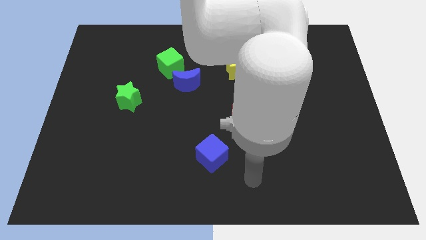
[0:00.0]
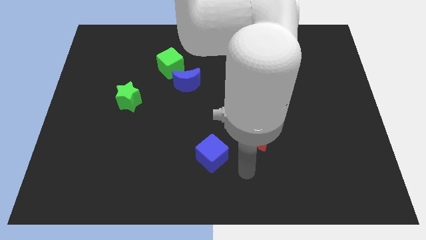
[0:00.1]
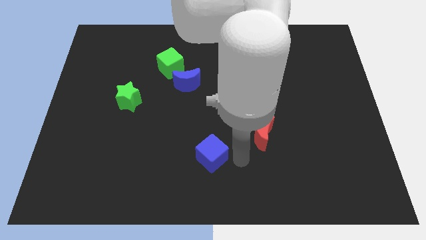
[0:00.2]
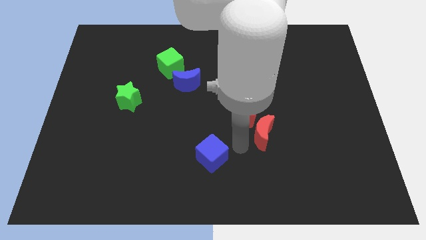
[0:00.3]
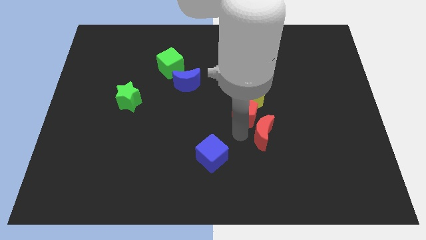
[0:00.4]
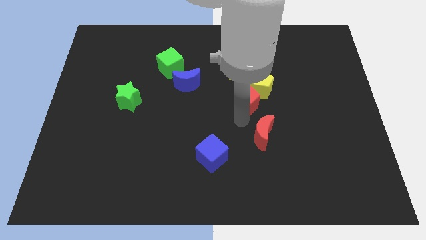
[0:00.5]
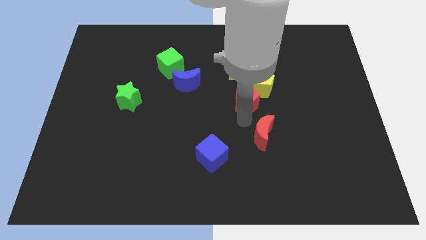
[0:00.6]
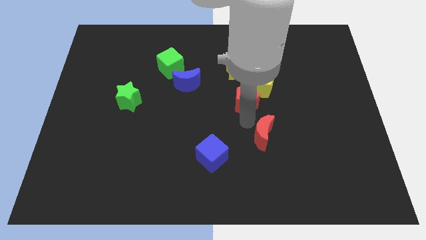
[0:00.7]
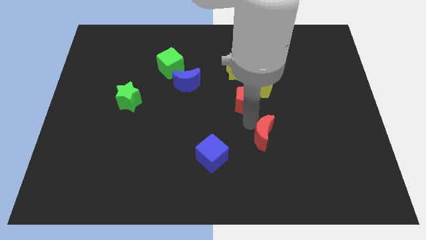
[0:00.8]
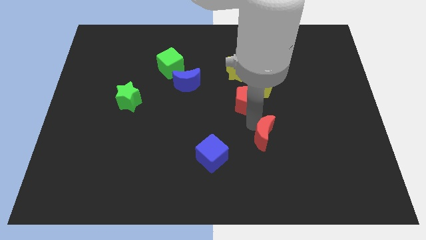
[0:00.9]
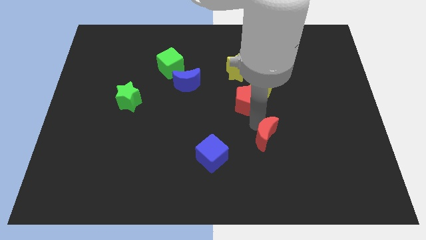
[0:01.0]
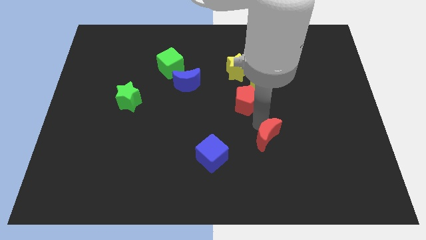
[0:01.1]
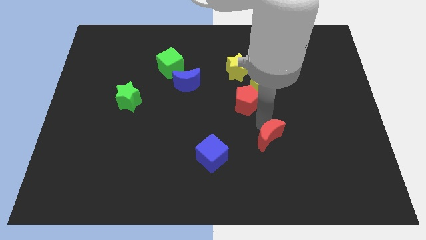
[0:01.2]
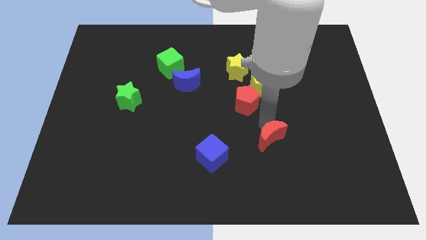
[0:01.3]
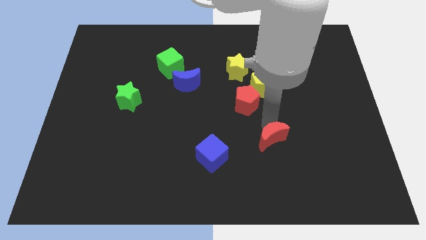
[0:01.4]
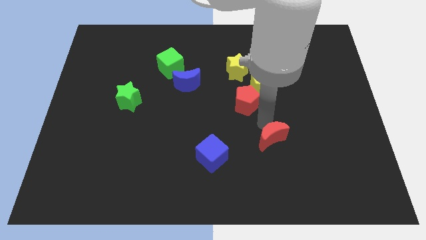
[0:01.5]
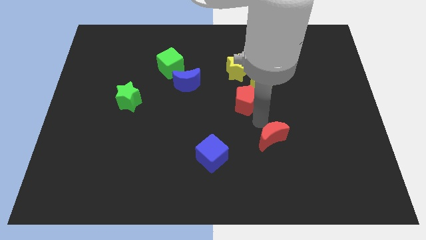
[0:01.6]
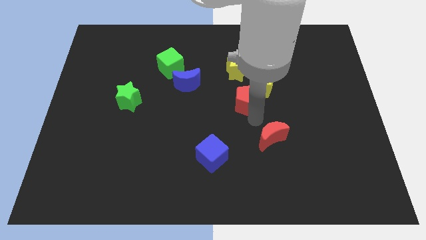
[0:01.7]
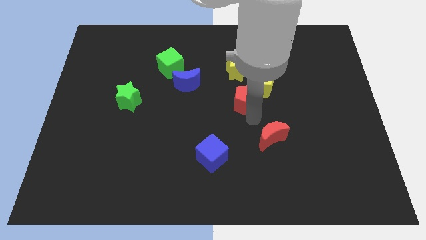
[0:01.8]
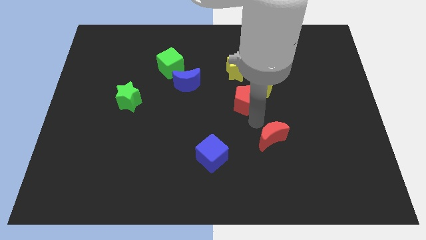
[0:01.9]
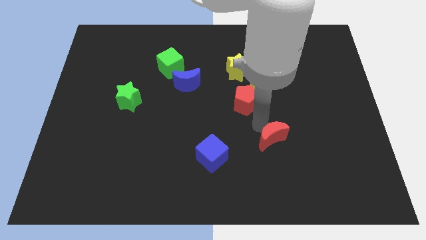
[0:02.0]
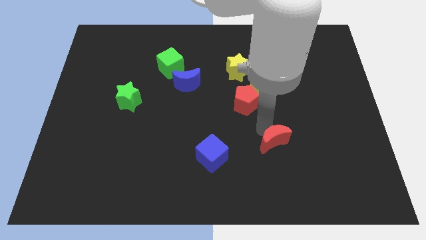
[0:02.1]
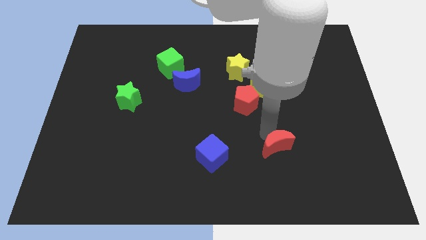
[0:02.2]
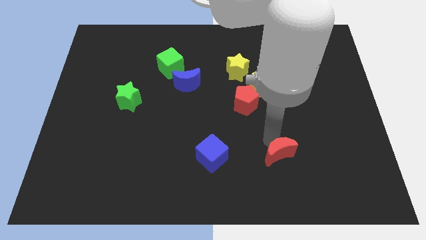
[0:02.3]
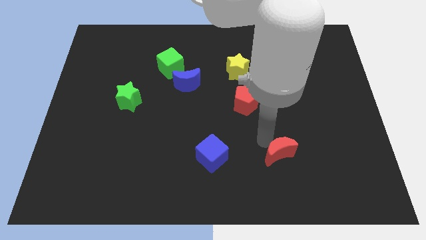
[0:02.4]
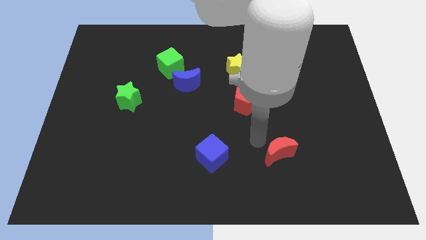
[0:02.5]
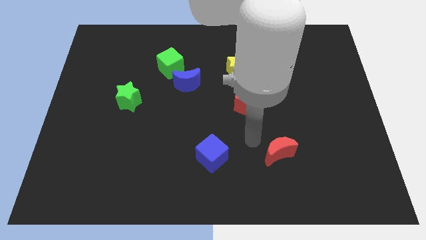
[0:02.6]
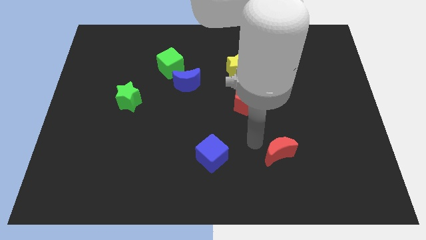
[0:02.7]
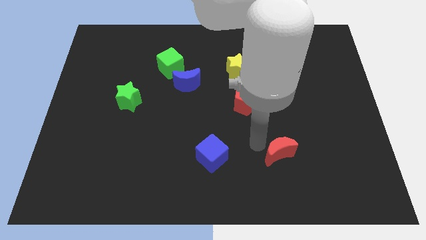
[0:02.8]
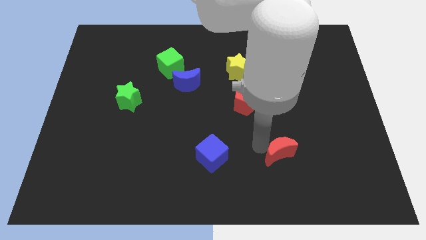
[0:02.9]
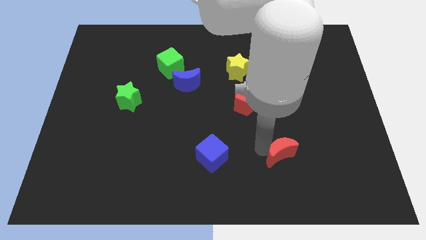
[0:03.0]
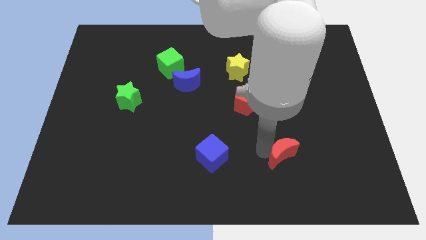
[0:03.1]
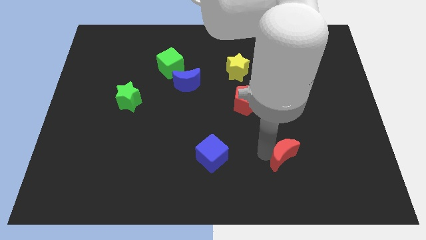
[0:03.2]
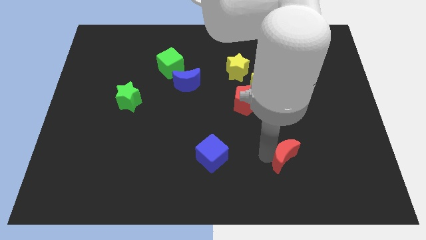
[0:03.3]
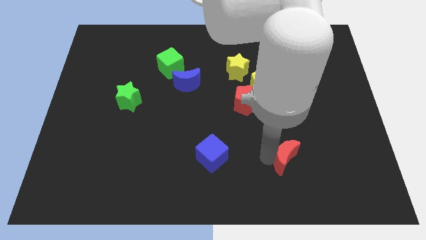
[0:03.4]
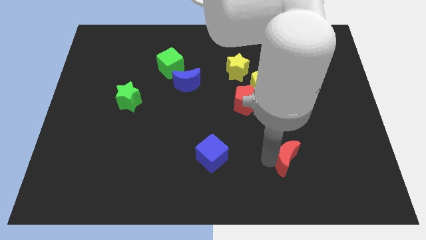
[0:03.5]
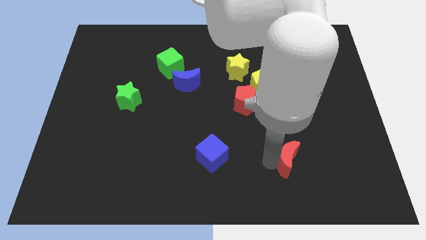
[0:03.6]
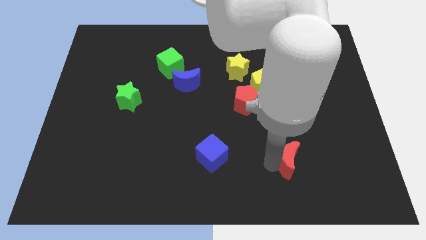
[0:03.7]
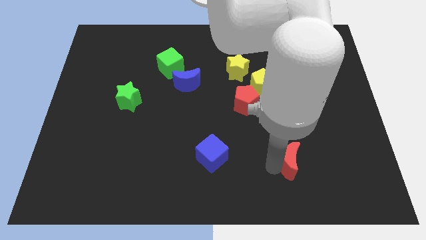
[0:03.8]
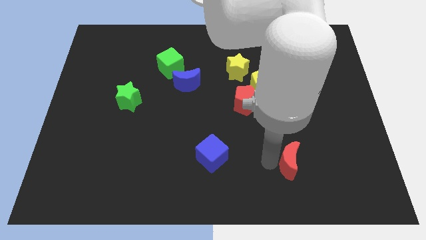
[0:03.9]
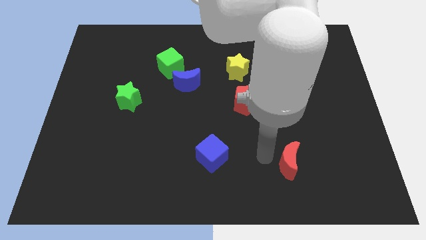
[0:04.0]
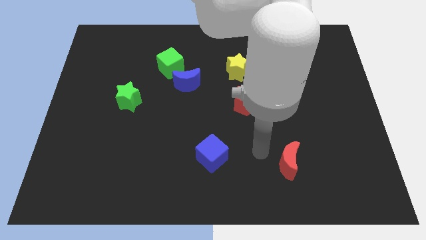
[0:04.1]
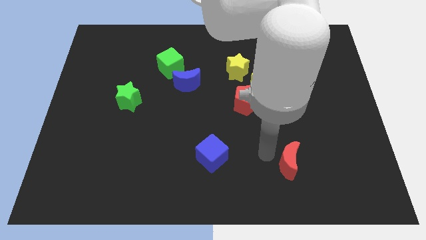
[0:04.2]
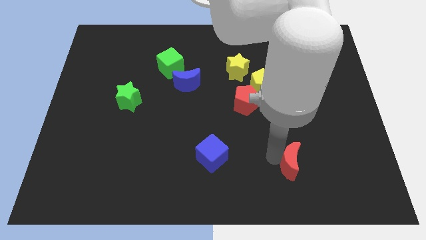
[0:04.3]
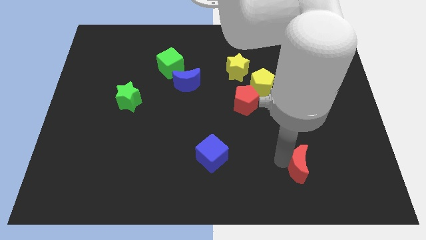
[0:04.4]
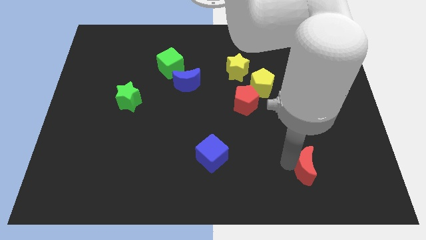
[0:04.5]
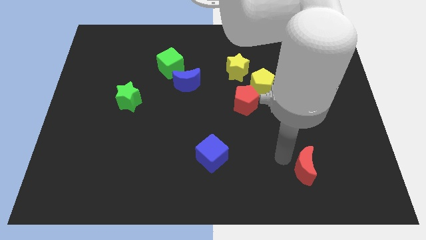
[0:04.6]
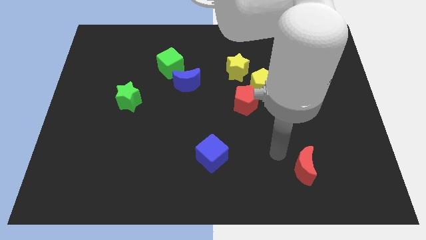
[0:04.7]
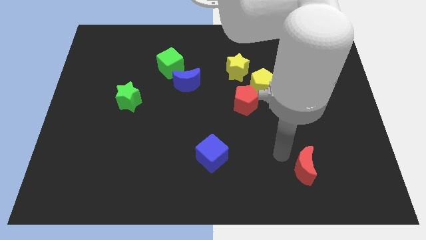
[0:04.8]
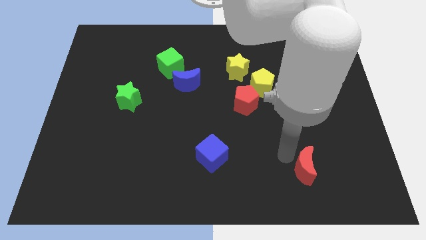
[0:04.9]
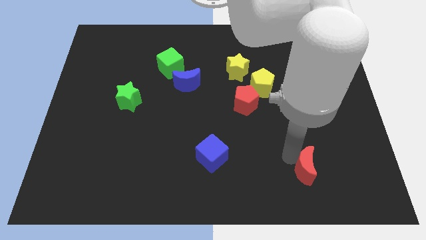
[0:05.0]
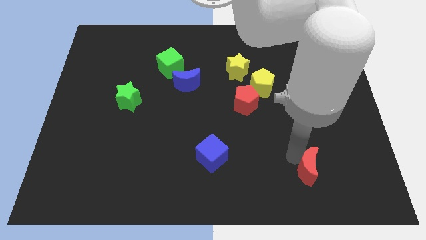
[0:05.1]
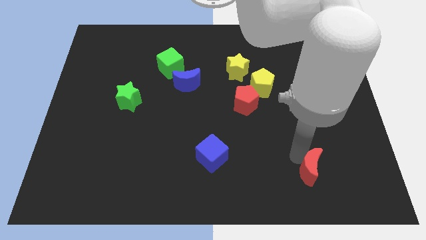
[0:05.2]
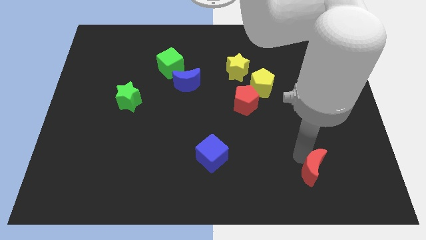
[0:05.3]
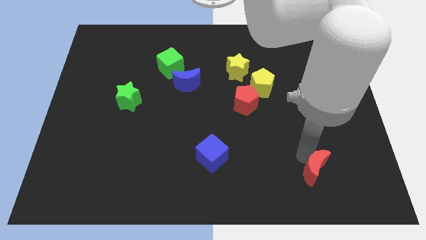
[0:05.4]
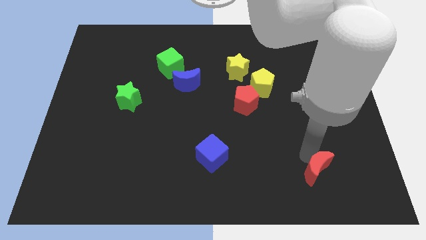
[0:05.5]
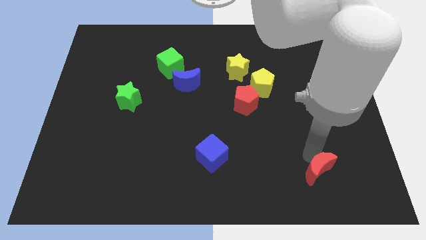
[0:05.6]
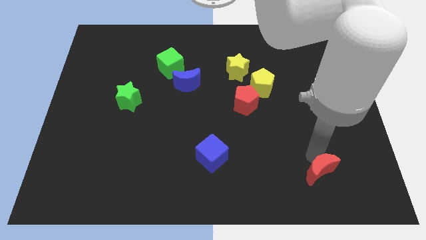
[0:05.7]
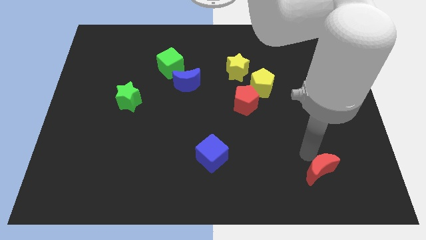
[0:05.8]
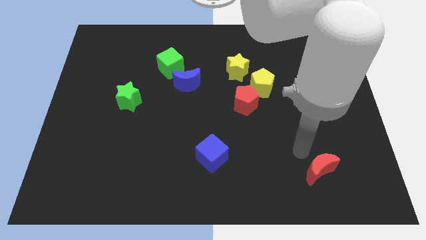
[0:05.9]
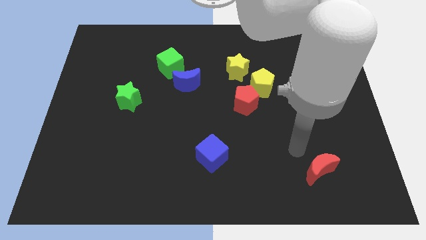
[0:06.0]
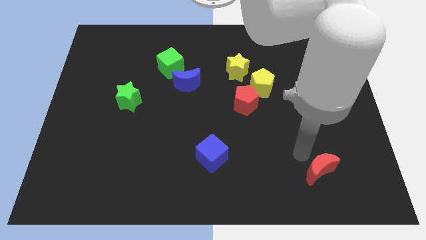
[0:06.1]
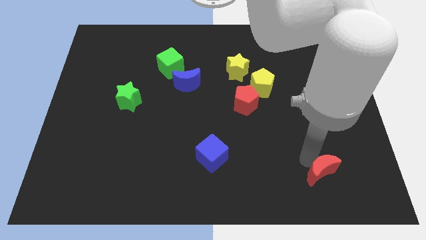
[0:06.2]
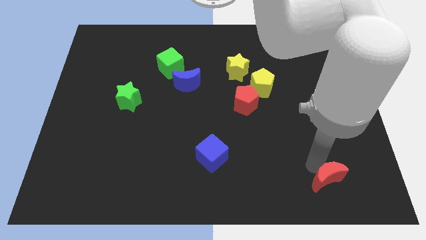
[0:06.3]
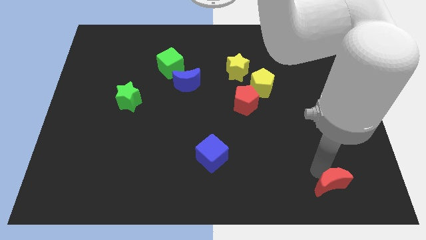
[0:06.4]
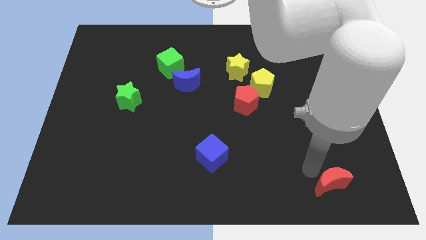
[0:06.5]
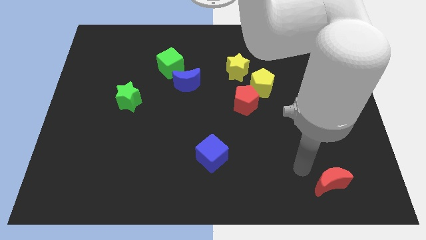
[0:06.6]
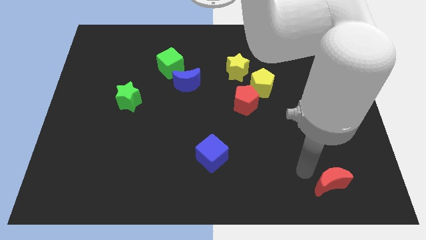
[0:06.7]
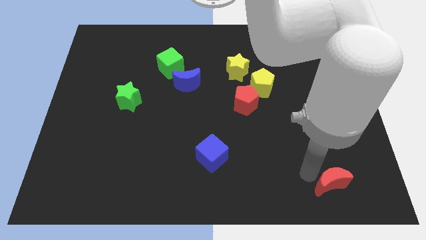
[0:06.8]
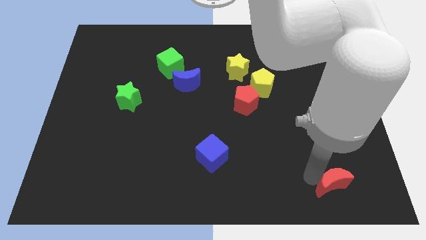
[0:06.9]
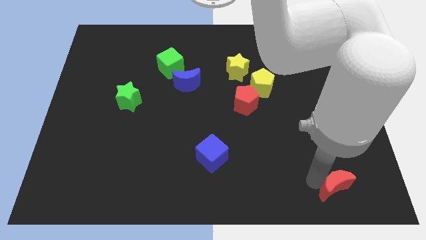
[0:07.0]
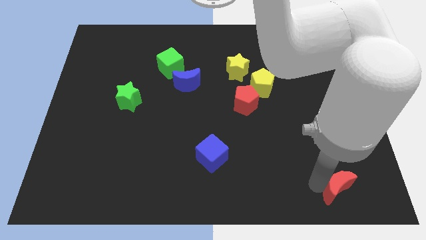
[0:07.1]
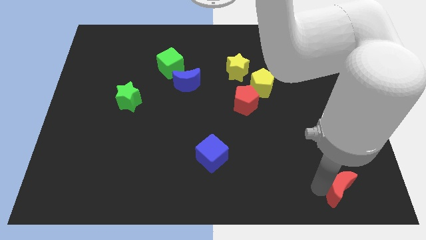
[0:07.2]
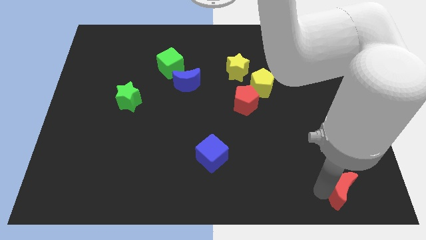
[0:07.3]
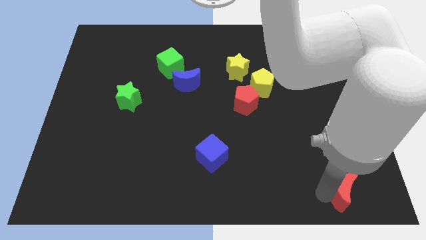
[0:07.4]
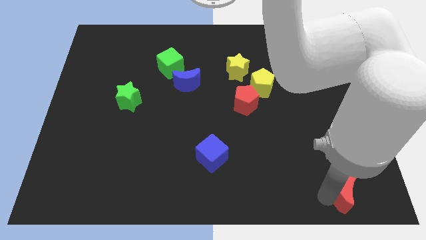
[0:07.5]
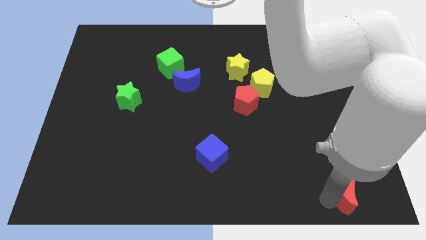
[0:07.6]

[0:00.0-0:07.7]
push the red moon to the bottom right
